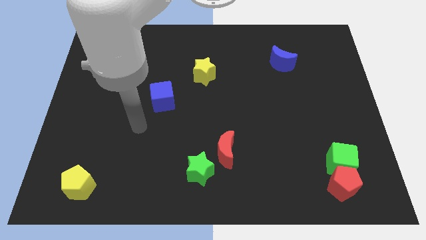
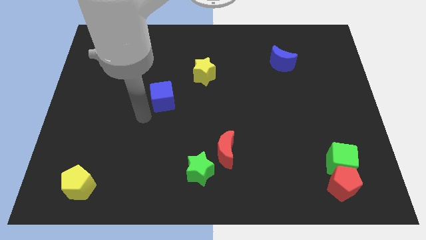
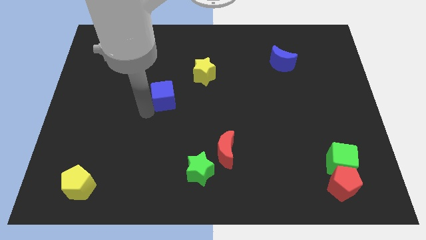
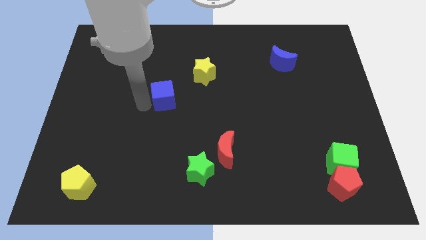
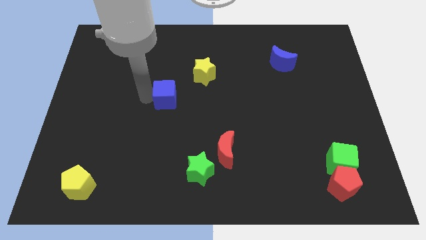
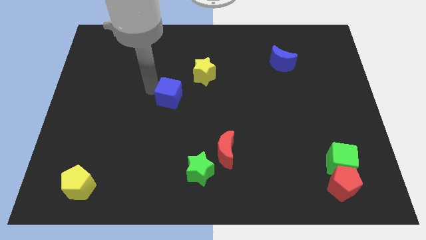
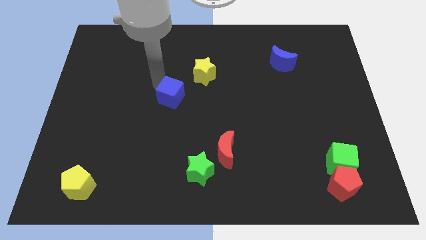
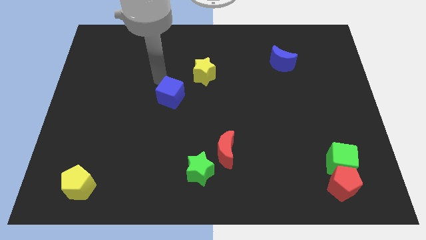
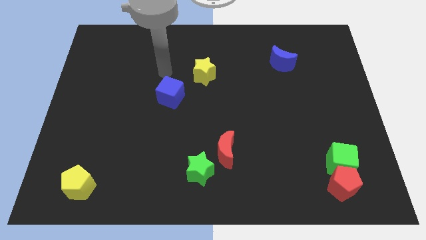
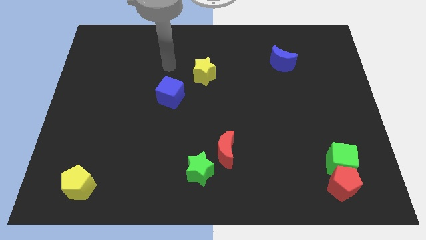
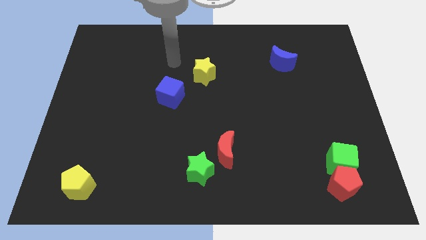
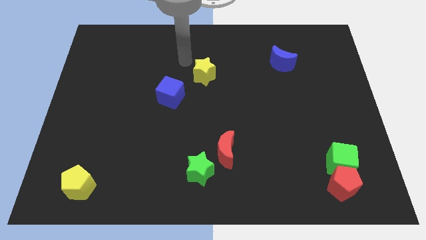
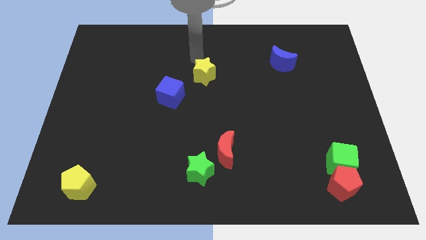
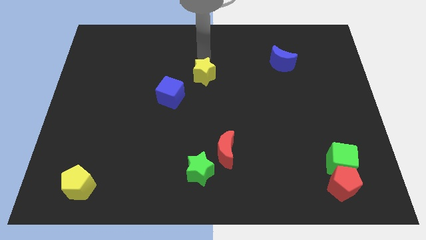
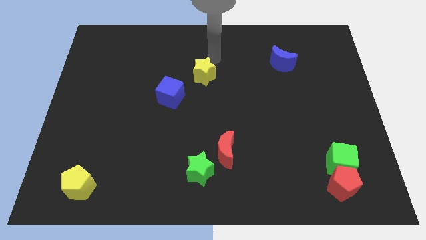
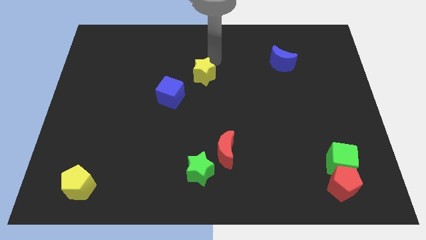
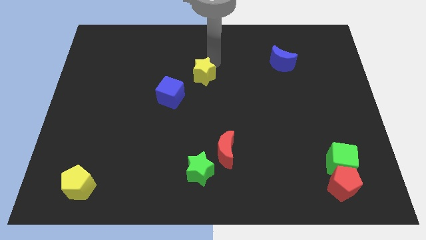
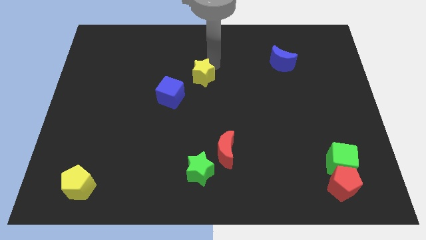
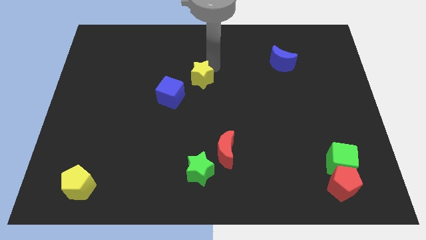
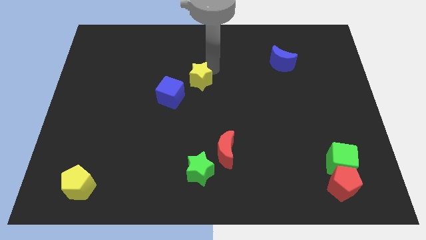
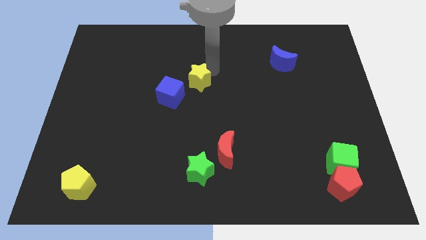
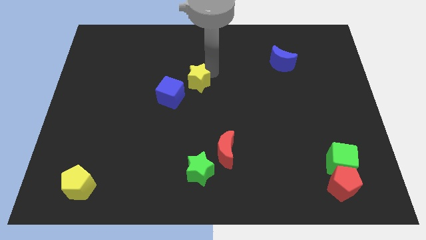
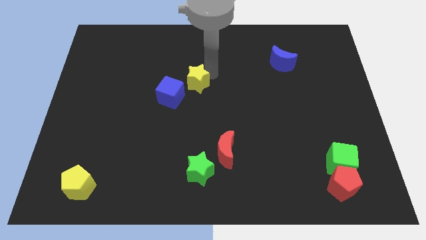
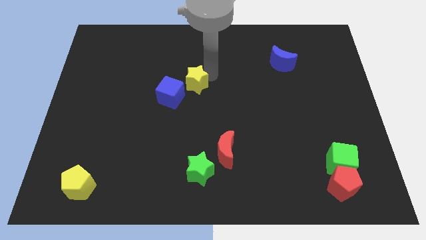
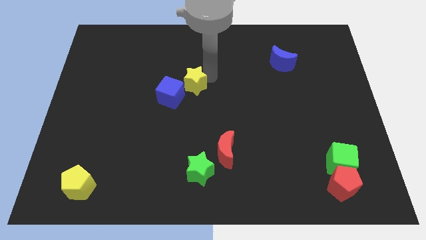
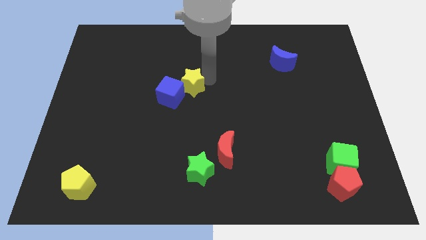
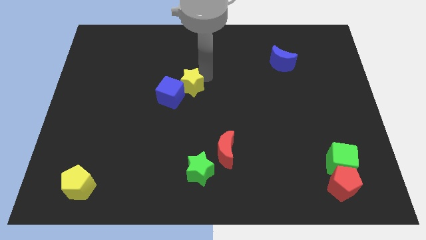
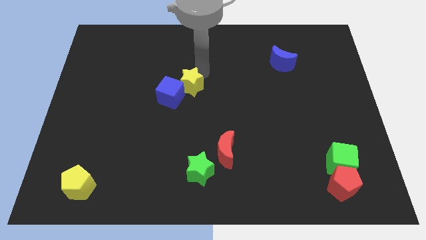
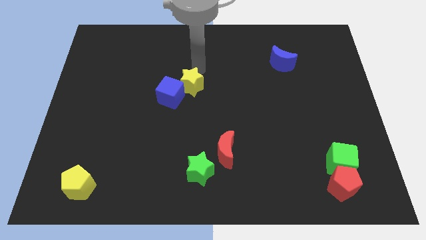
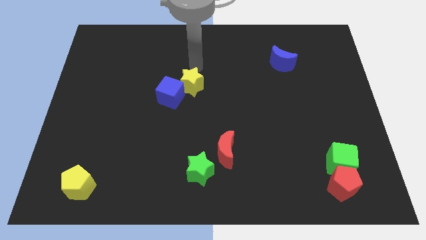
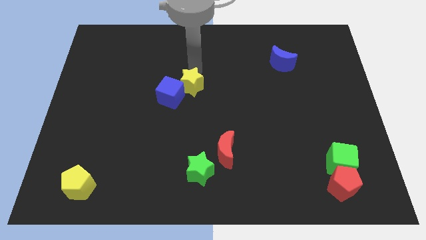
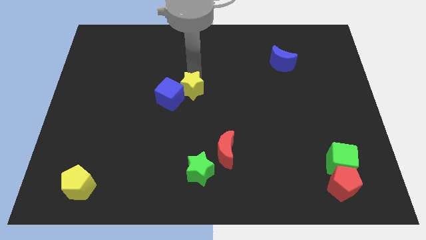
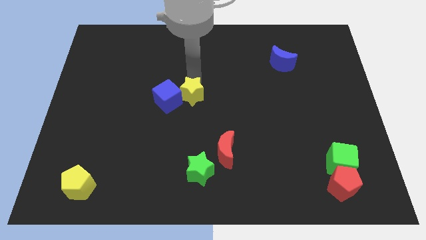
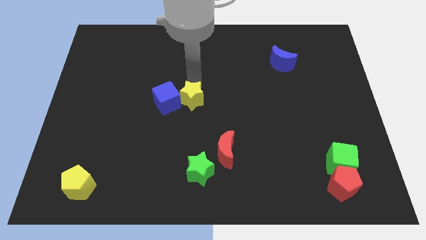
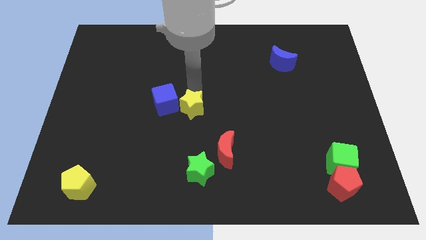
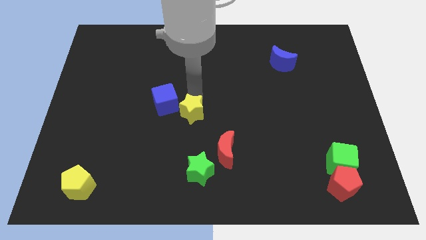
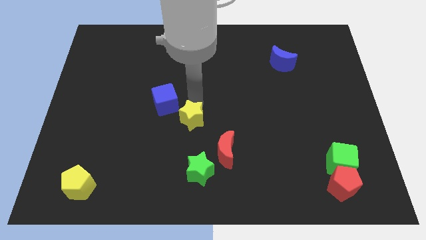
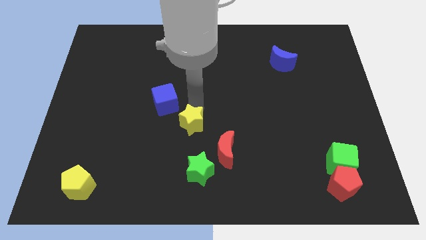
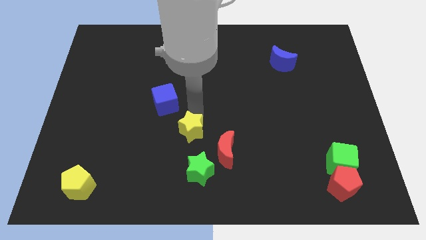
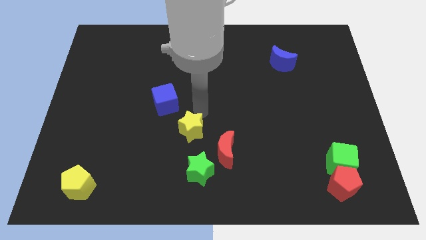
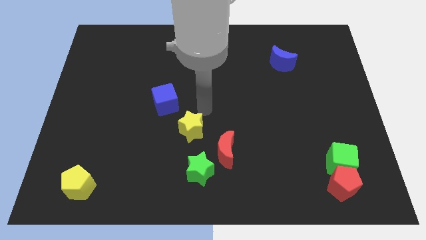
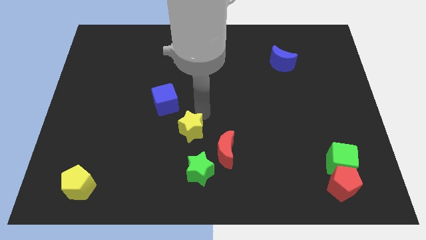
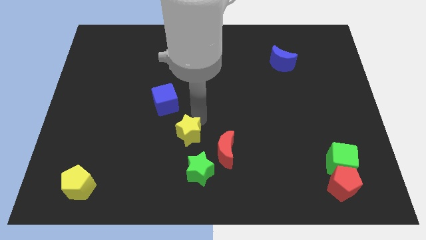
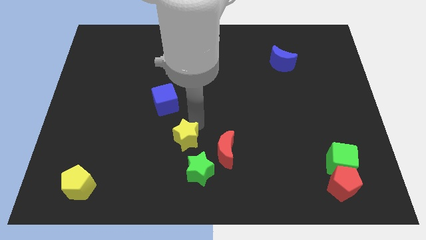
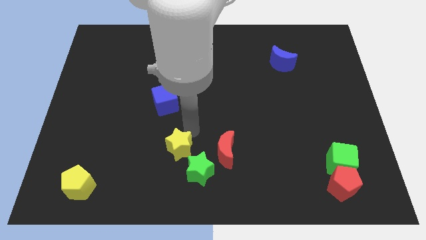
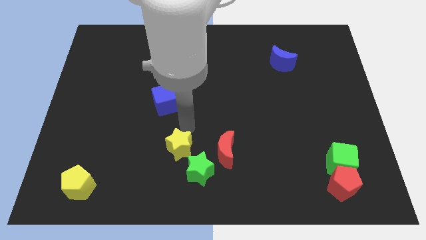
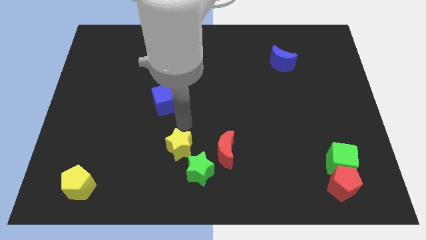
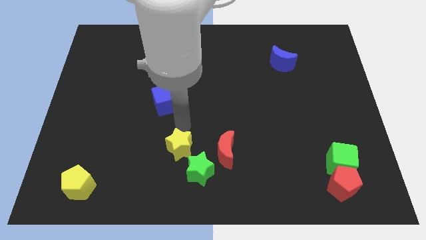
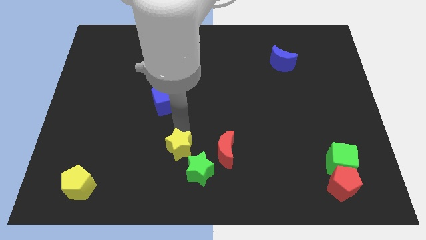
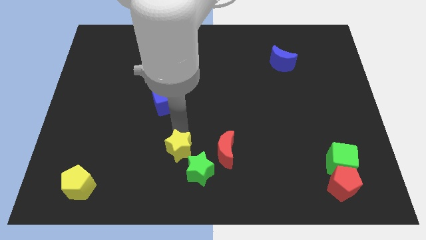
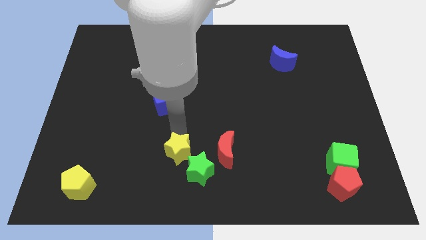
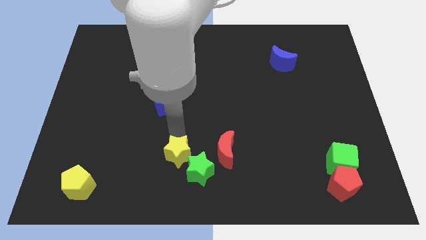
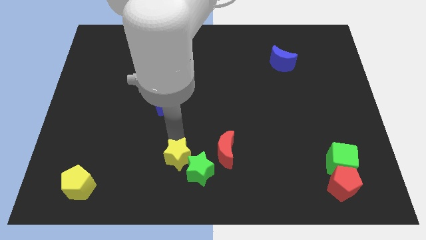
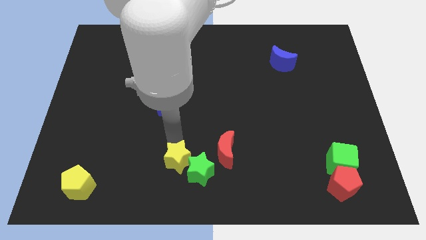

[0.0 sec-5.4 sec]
push the yellow star to the bottom side
